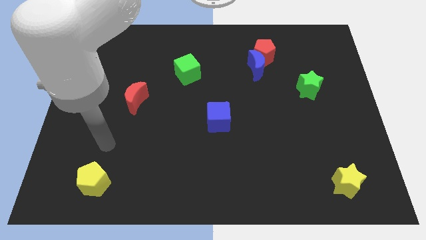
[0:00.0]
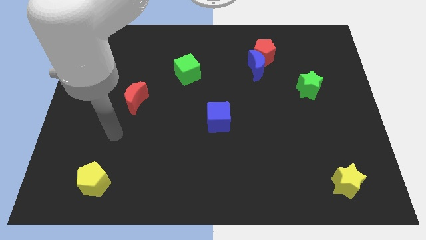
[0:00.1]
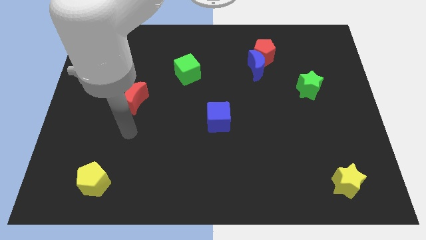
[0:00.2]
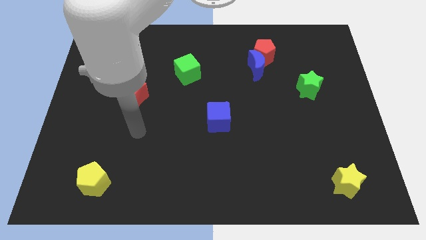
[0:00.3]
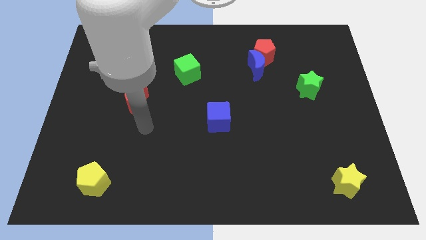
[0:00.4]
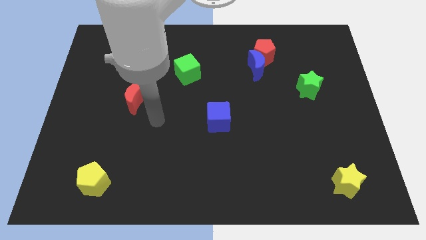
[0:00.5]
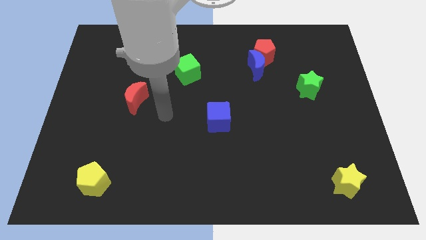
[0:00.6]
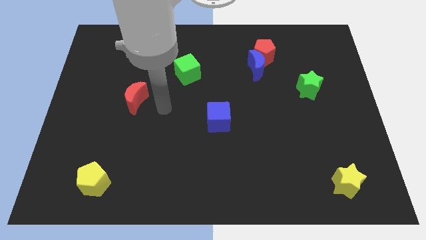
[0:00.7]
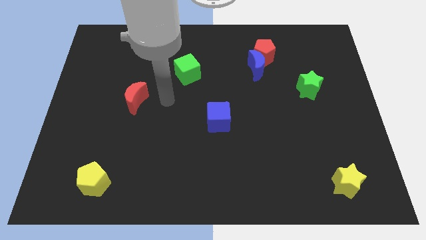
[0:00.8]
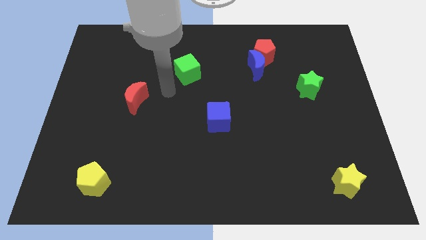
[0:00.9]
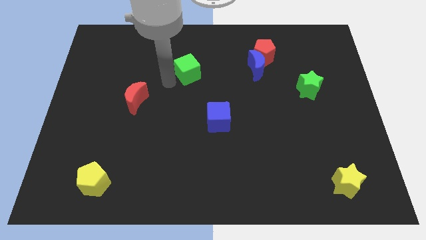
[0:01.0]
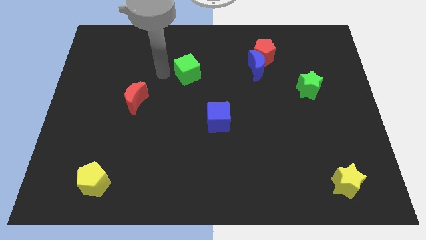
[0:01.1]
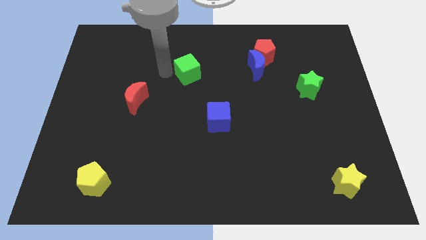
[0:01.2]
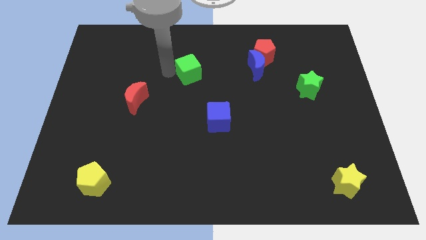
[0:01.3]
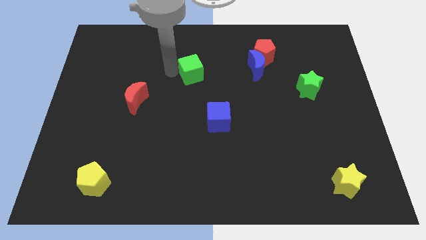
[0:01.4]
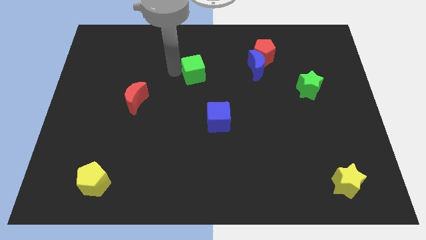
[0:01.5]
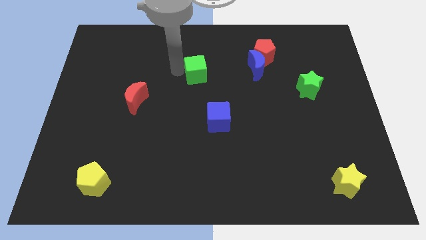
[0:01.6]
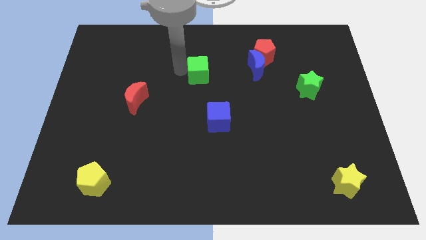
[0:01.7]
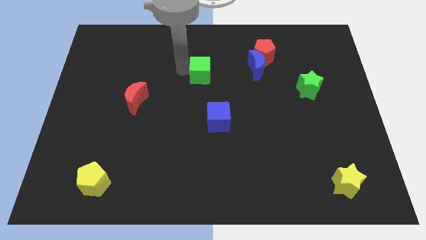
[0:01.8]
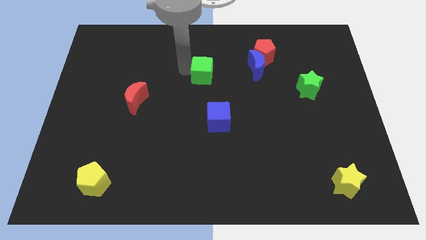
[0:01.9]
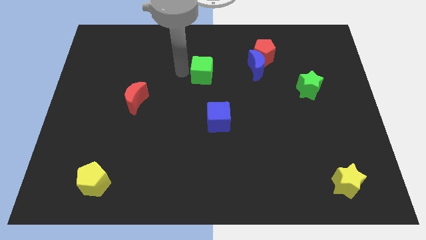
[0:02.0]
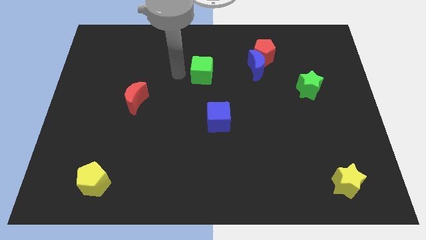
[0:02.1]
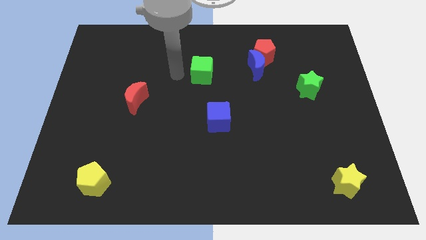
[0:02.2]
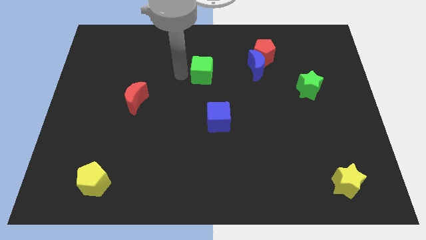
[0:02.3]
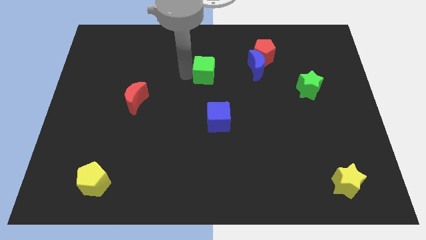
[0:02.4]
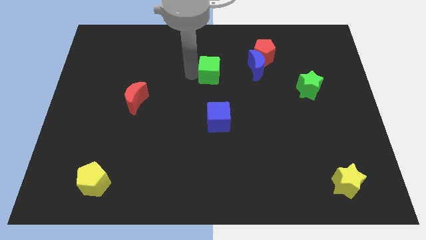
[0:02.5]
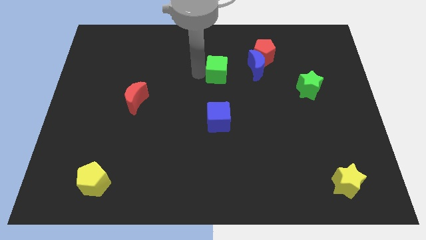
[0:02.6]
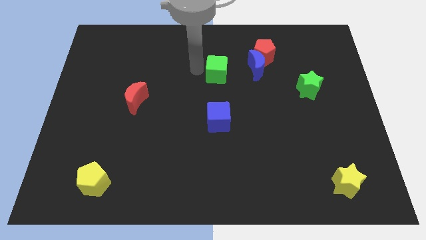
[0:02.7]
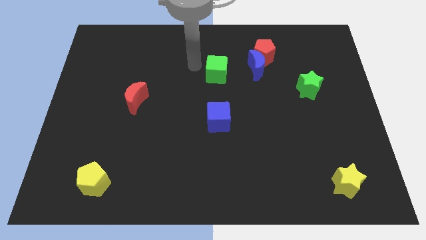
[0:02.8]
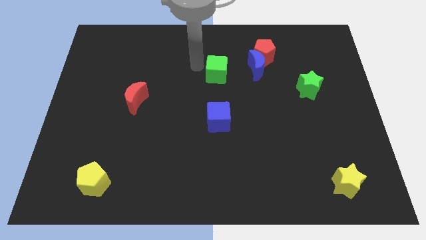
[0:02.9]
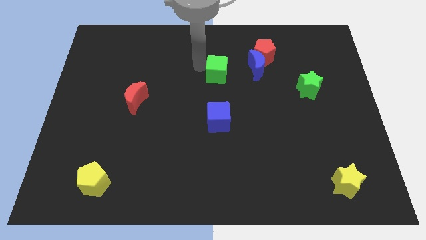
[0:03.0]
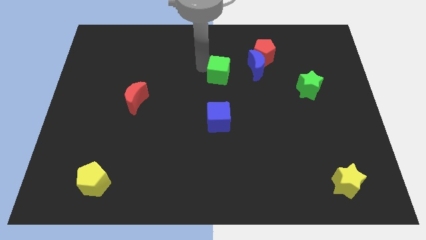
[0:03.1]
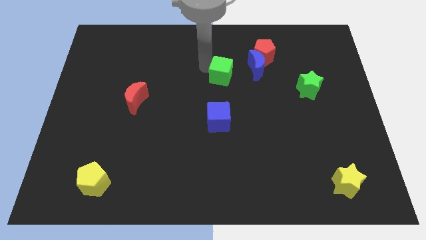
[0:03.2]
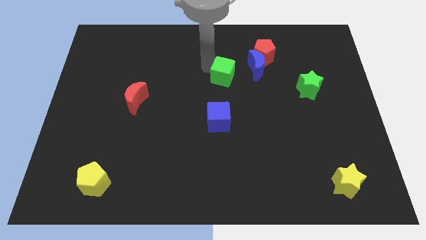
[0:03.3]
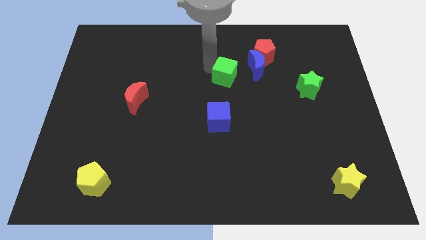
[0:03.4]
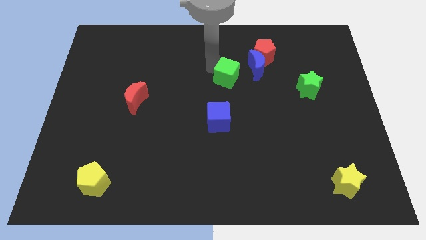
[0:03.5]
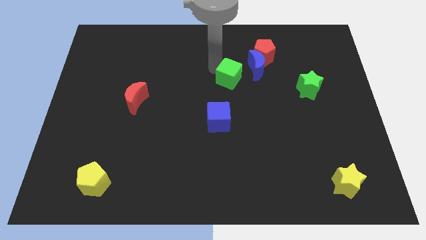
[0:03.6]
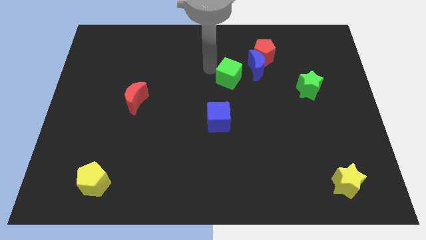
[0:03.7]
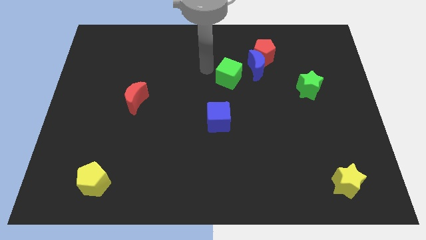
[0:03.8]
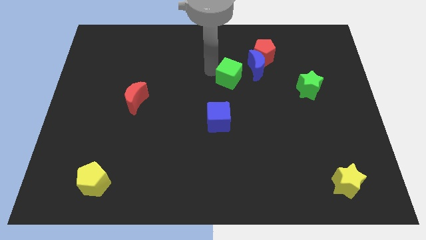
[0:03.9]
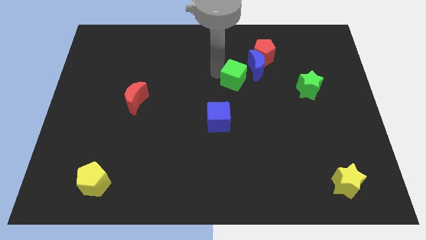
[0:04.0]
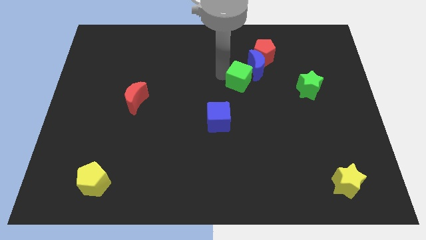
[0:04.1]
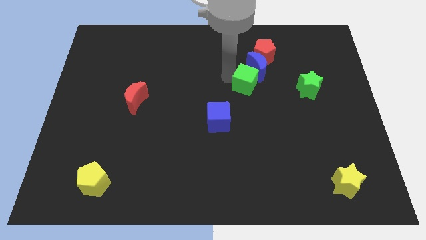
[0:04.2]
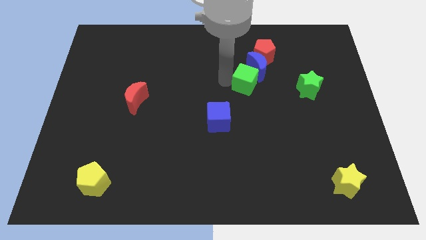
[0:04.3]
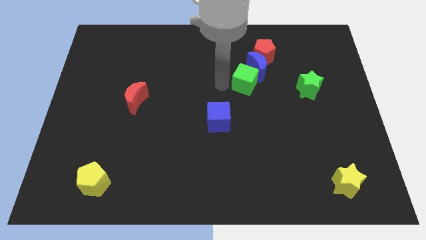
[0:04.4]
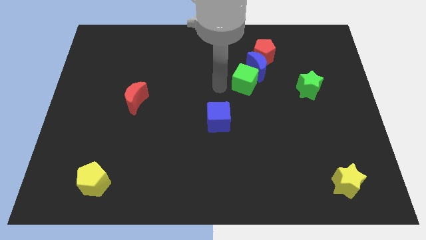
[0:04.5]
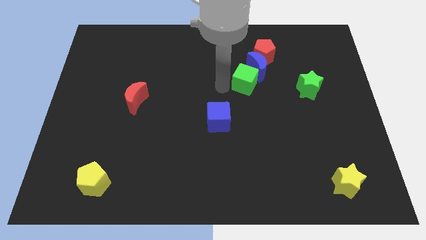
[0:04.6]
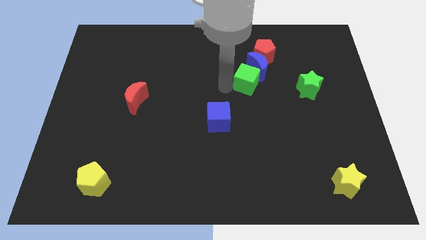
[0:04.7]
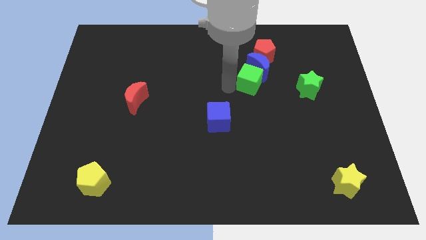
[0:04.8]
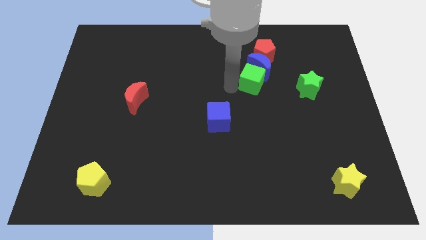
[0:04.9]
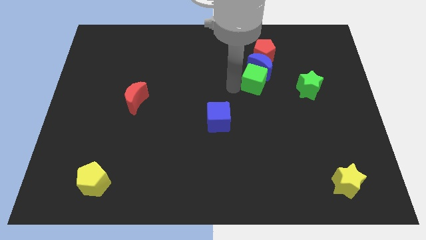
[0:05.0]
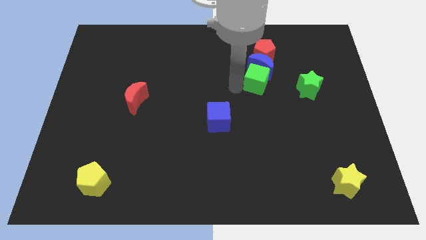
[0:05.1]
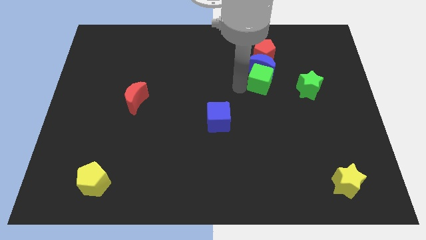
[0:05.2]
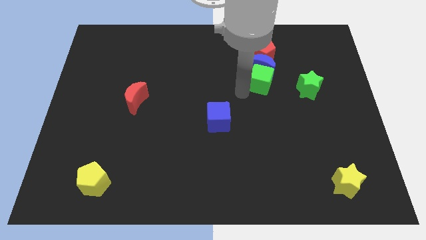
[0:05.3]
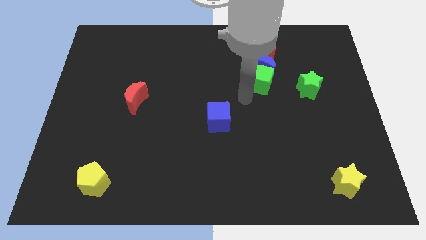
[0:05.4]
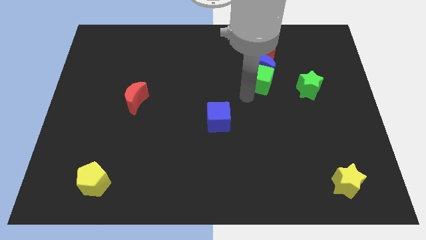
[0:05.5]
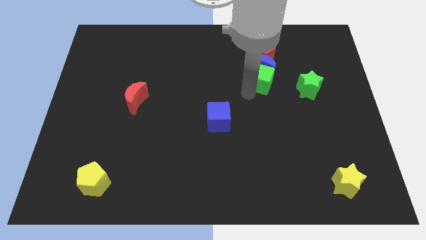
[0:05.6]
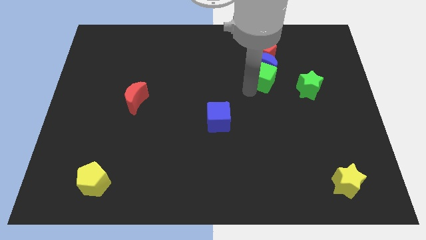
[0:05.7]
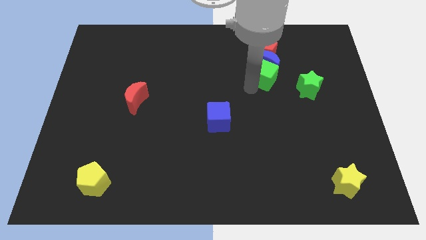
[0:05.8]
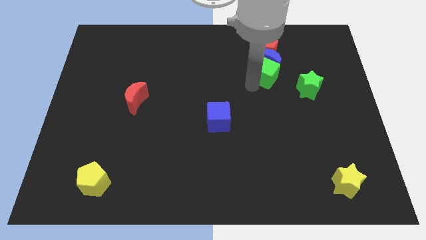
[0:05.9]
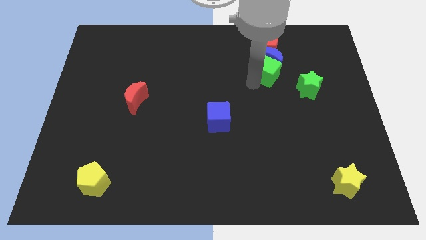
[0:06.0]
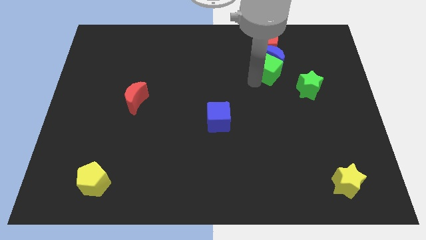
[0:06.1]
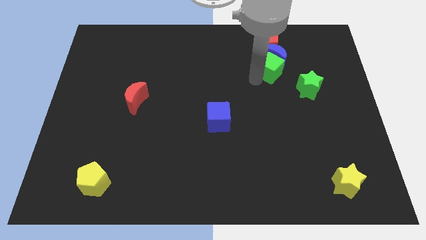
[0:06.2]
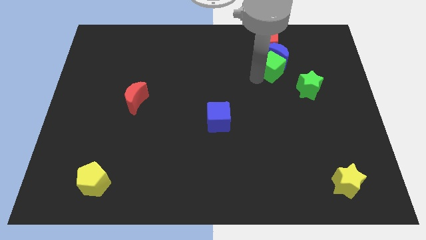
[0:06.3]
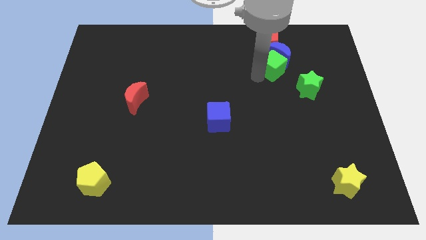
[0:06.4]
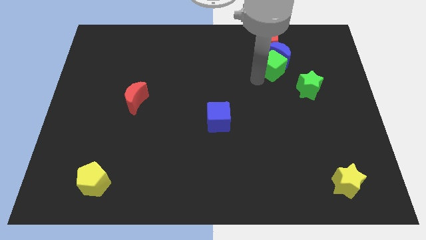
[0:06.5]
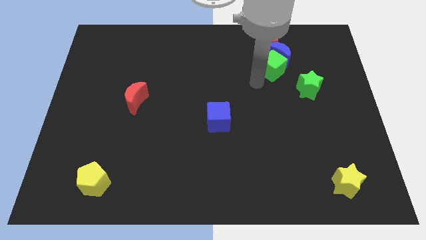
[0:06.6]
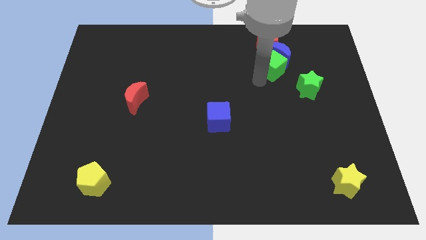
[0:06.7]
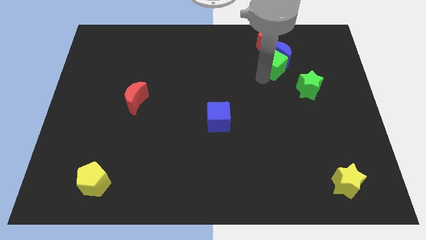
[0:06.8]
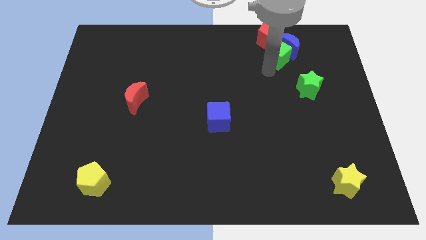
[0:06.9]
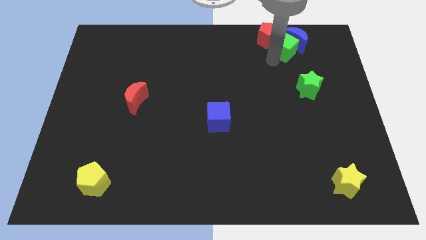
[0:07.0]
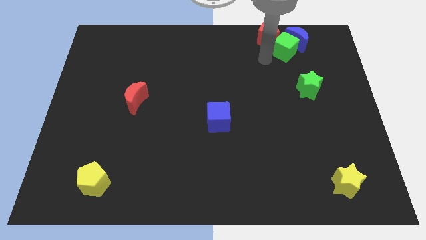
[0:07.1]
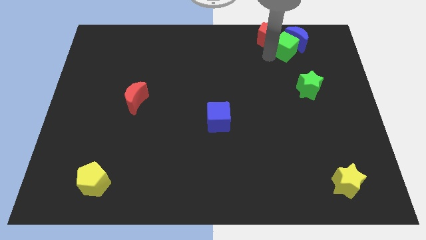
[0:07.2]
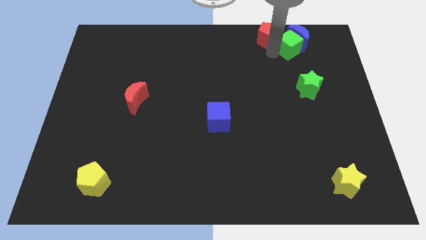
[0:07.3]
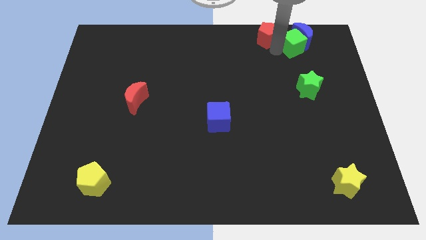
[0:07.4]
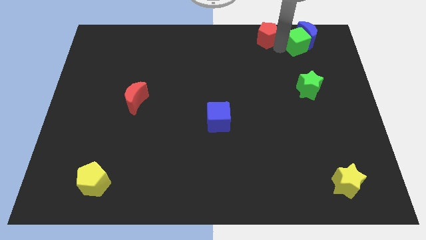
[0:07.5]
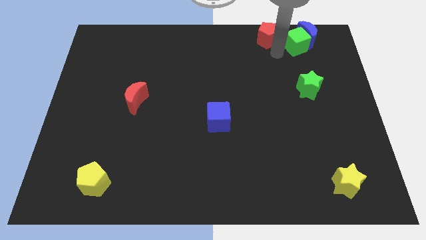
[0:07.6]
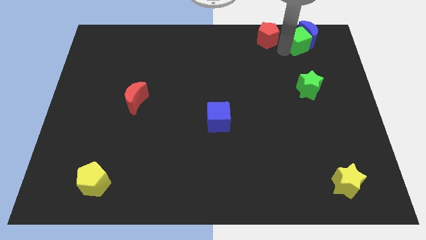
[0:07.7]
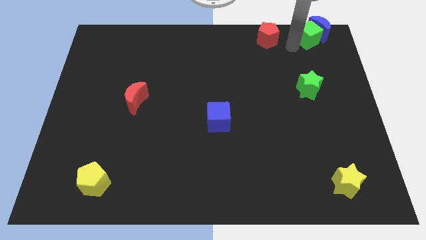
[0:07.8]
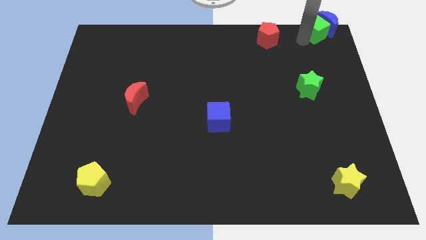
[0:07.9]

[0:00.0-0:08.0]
push the green cube to the top right corner
